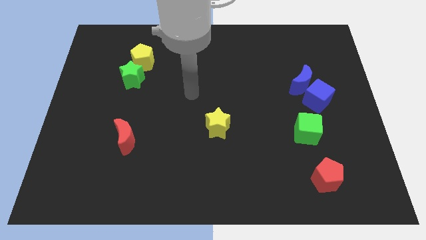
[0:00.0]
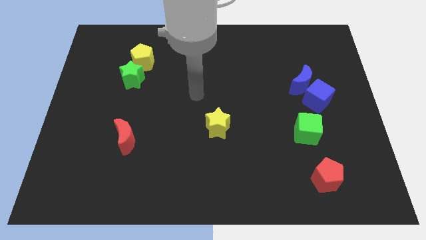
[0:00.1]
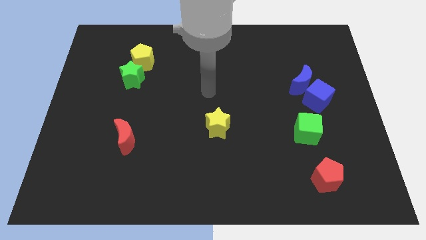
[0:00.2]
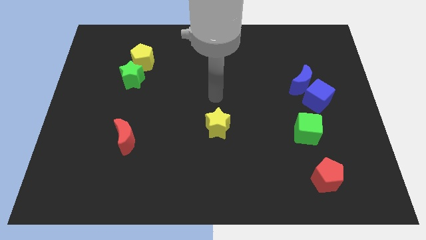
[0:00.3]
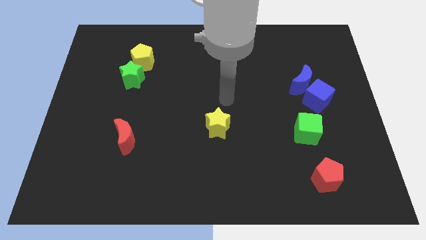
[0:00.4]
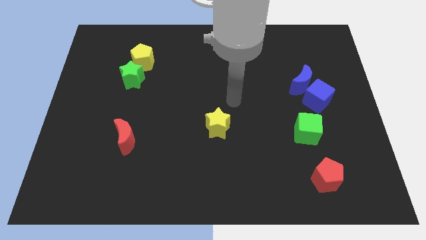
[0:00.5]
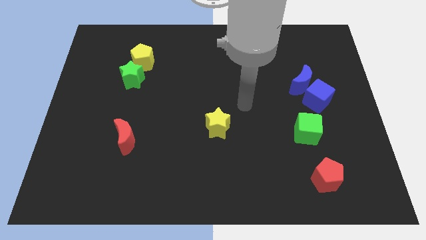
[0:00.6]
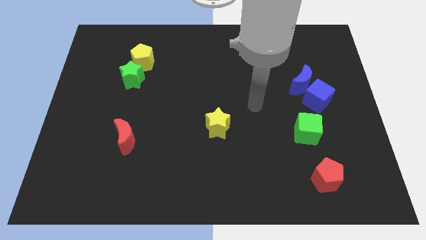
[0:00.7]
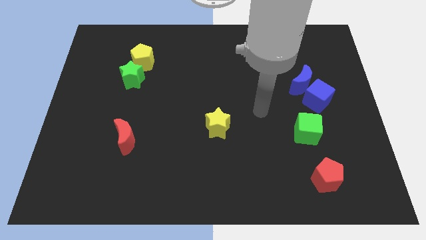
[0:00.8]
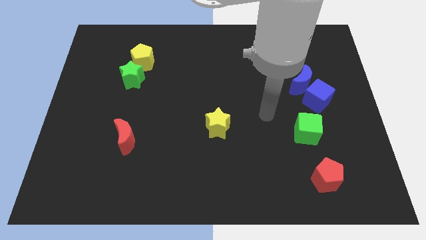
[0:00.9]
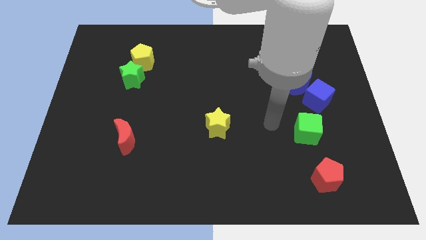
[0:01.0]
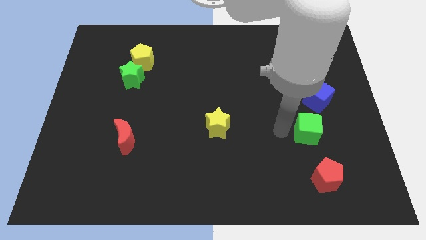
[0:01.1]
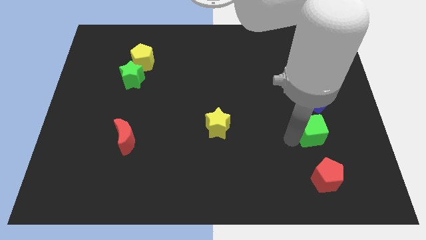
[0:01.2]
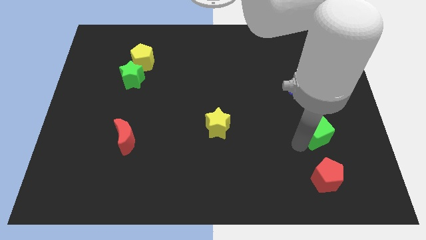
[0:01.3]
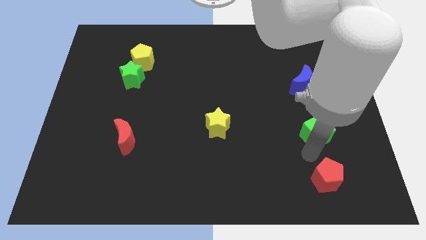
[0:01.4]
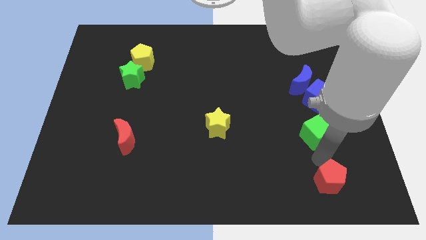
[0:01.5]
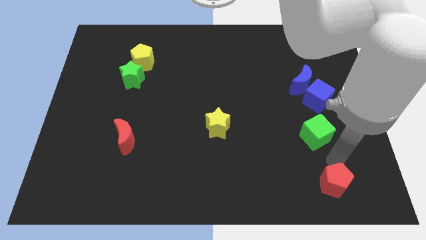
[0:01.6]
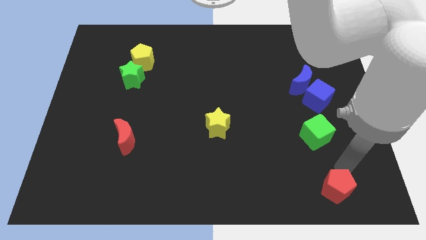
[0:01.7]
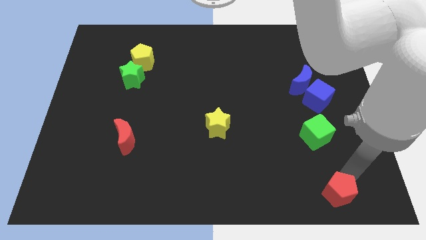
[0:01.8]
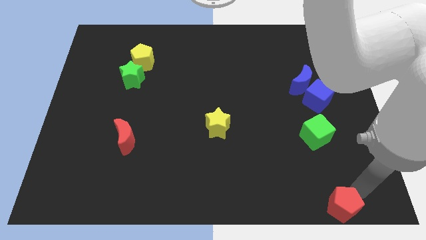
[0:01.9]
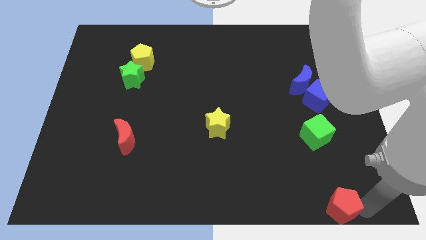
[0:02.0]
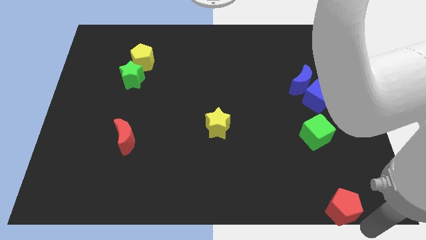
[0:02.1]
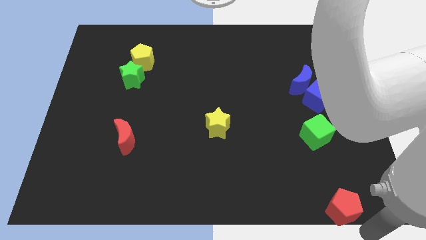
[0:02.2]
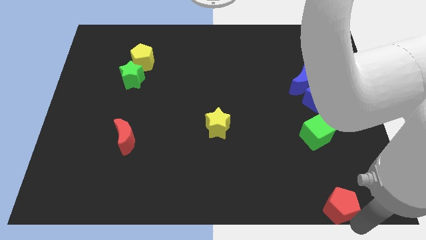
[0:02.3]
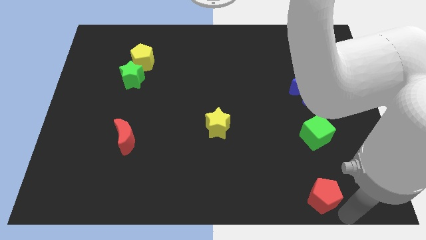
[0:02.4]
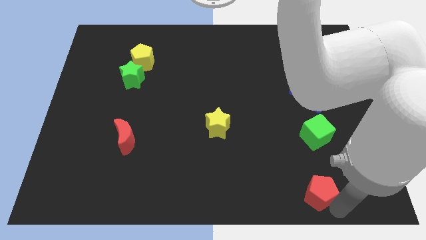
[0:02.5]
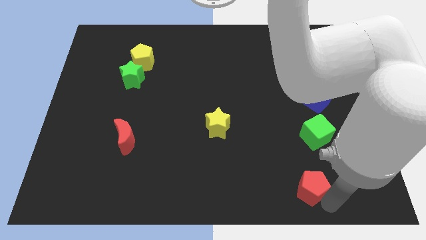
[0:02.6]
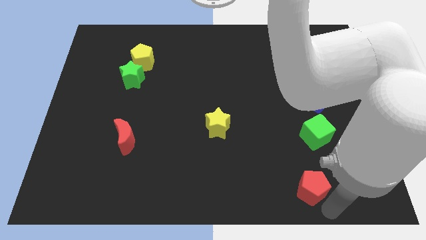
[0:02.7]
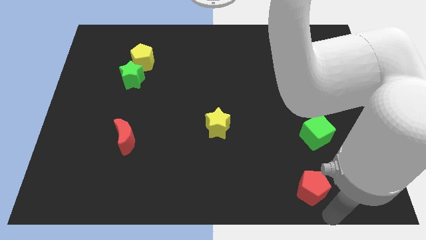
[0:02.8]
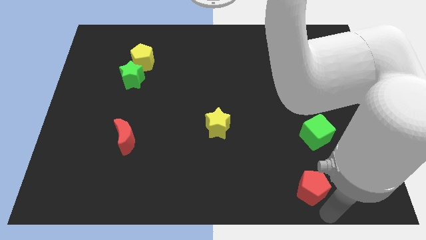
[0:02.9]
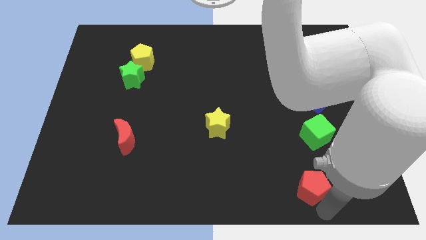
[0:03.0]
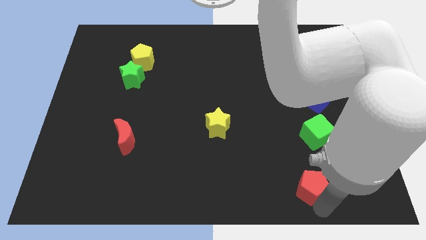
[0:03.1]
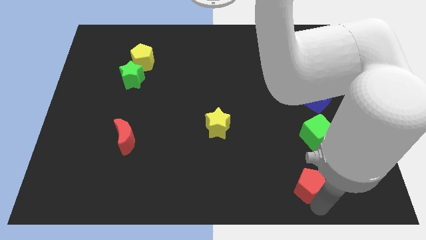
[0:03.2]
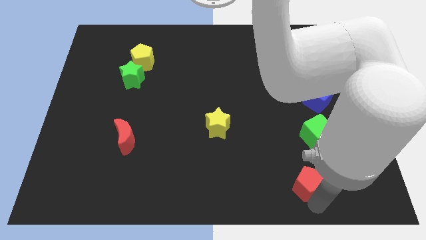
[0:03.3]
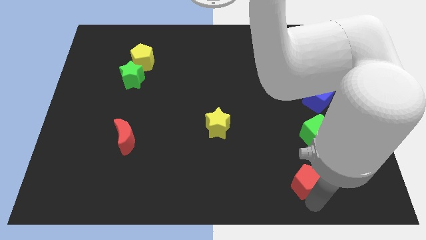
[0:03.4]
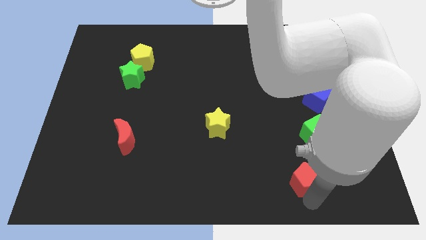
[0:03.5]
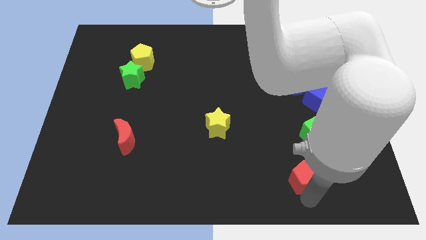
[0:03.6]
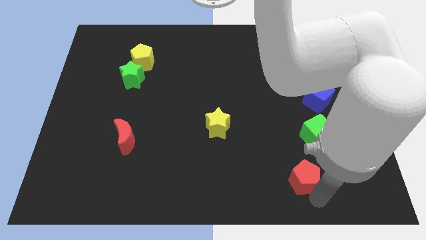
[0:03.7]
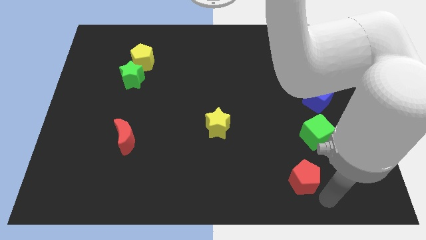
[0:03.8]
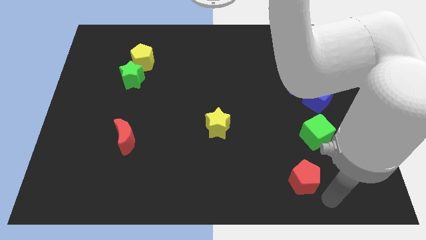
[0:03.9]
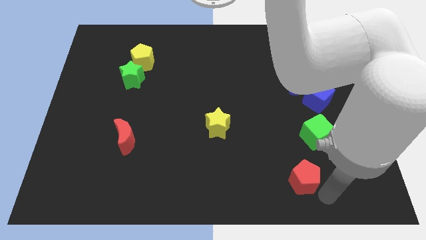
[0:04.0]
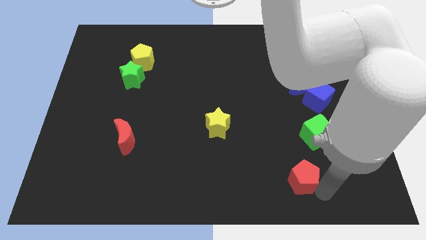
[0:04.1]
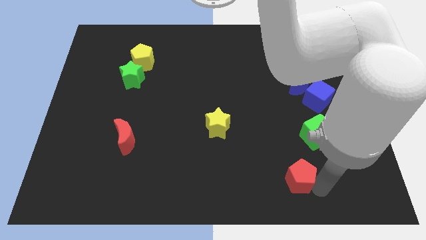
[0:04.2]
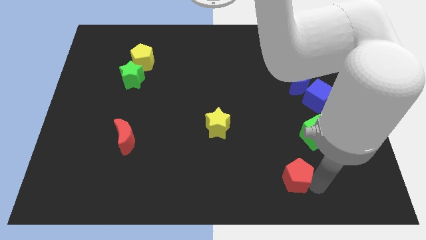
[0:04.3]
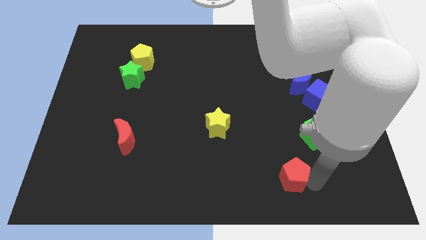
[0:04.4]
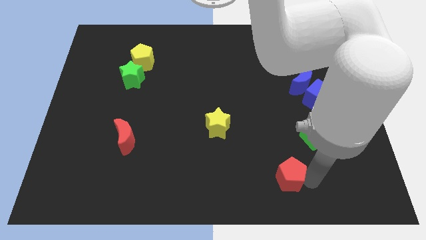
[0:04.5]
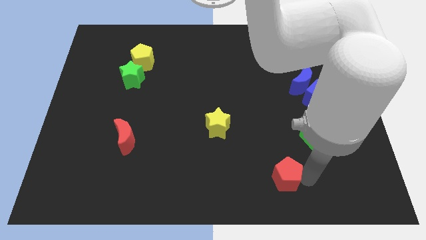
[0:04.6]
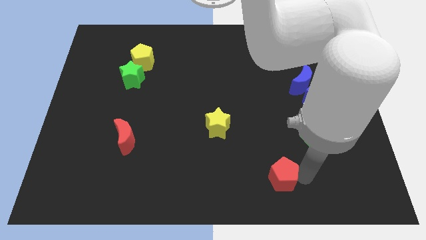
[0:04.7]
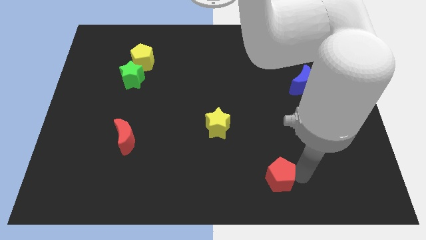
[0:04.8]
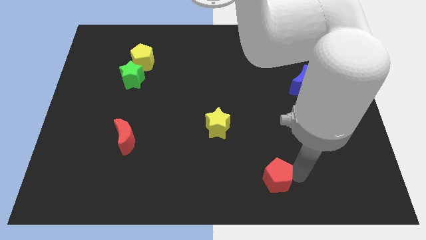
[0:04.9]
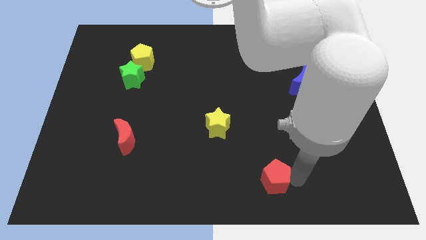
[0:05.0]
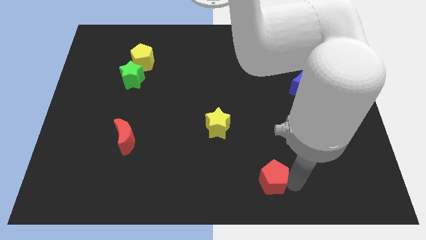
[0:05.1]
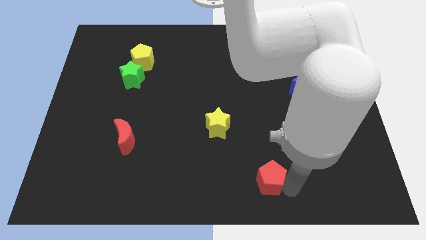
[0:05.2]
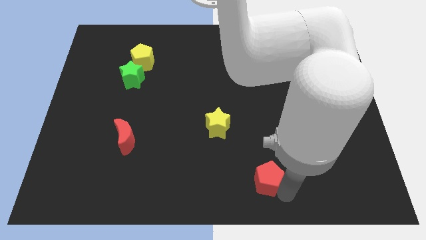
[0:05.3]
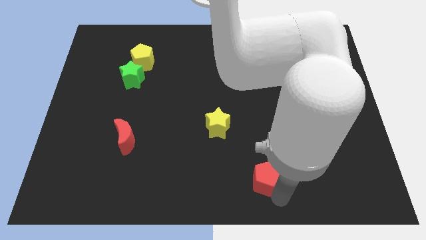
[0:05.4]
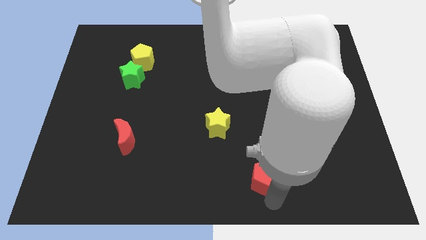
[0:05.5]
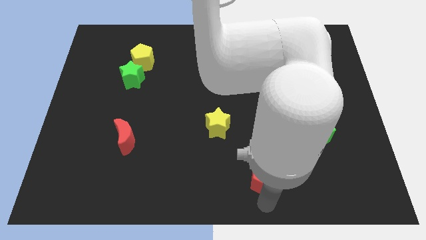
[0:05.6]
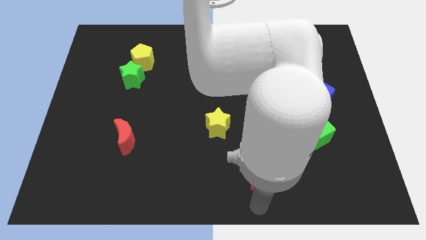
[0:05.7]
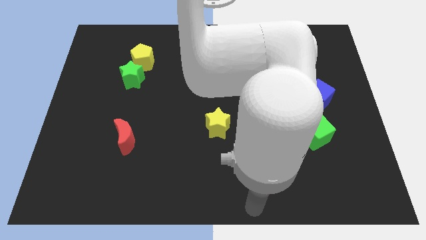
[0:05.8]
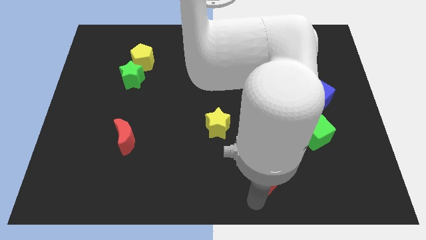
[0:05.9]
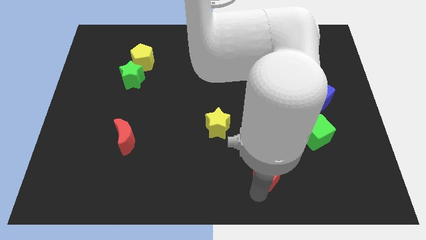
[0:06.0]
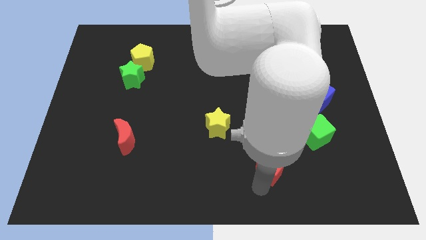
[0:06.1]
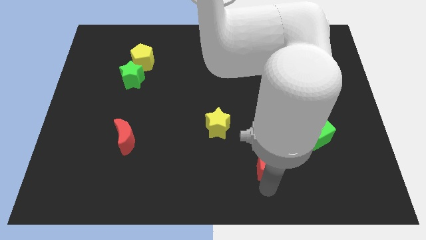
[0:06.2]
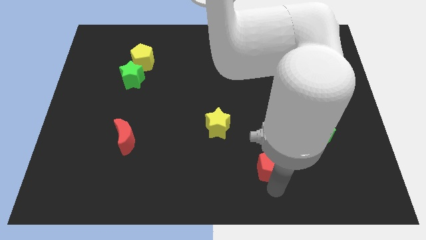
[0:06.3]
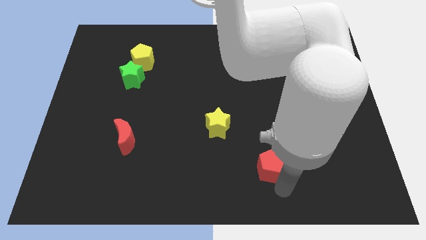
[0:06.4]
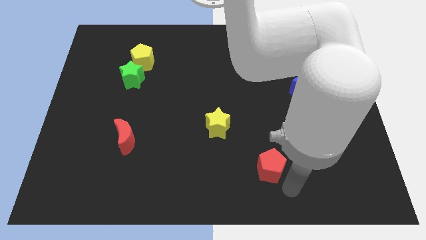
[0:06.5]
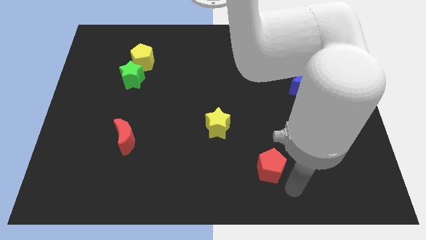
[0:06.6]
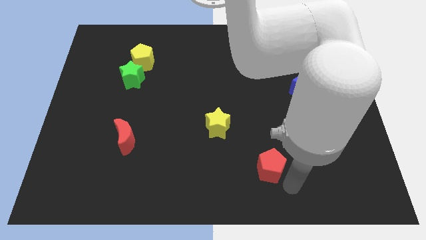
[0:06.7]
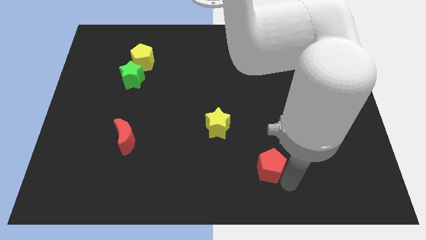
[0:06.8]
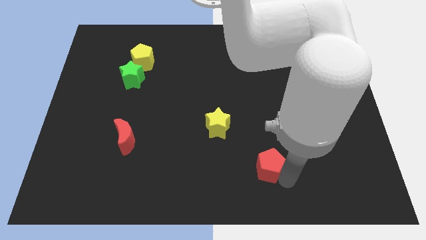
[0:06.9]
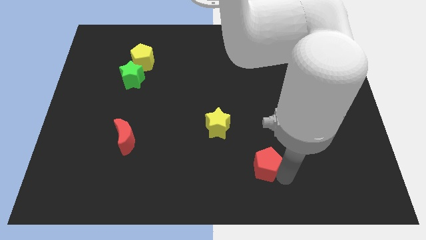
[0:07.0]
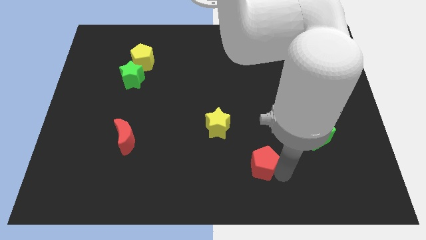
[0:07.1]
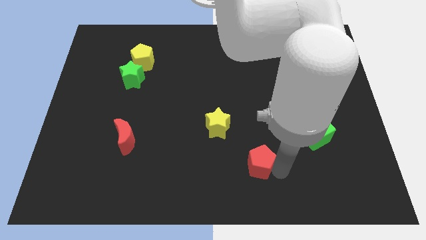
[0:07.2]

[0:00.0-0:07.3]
put the red pentagon to the bottom right of the yellow star

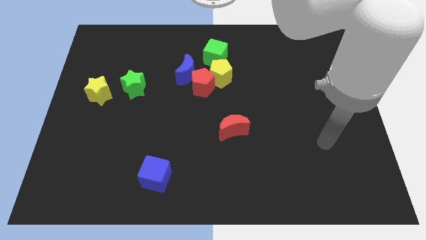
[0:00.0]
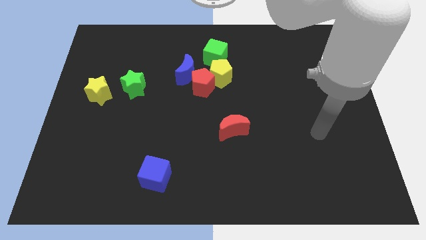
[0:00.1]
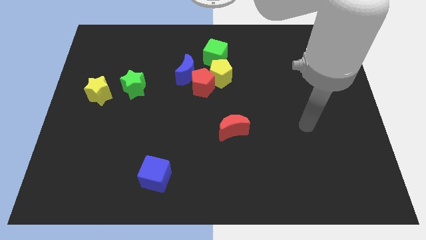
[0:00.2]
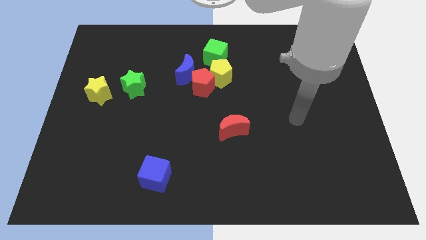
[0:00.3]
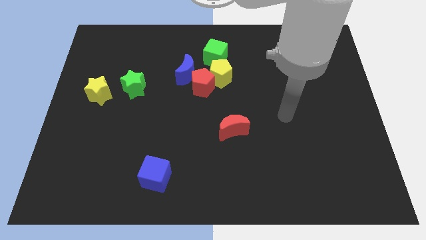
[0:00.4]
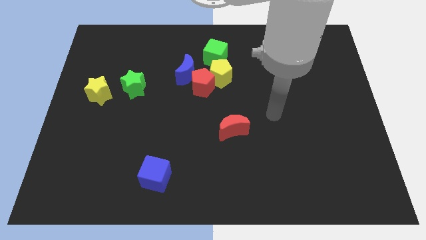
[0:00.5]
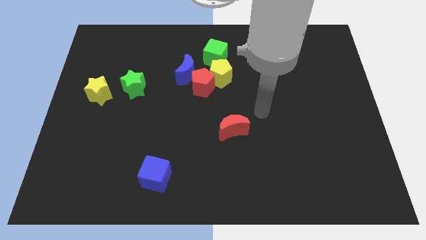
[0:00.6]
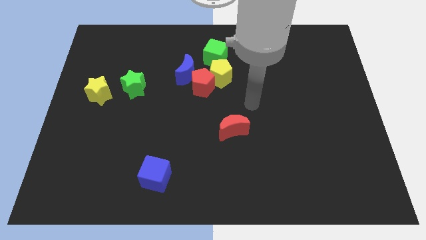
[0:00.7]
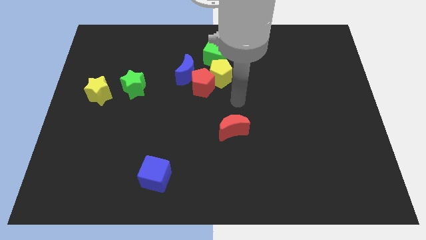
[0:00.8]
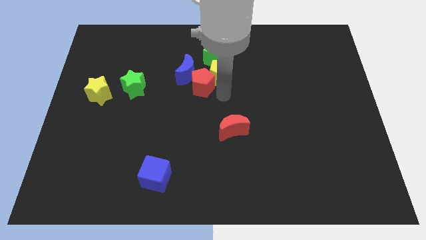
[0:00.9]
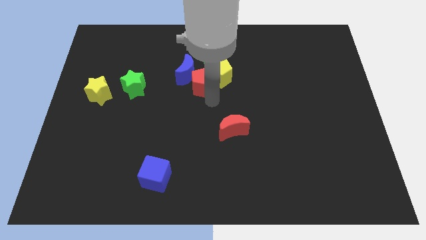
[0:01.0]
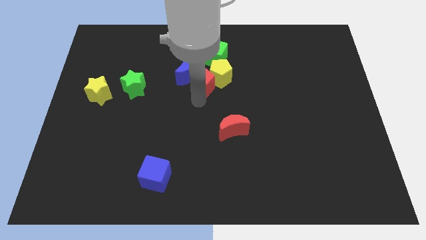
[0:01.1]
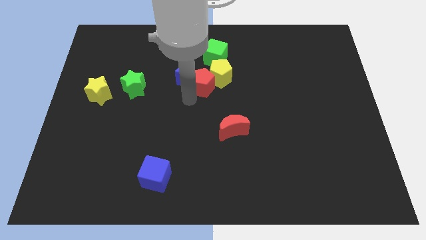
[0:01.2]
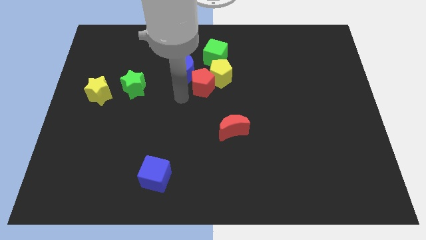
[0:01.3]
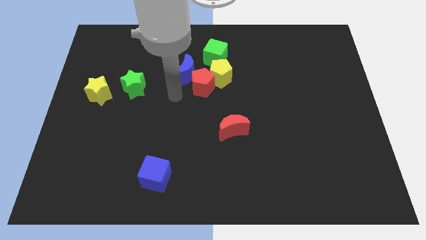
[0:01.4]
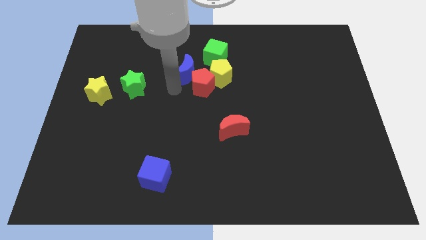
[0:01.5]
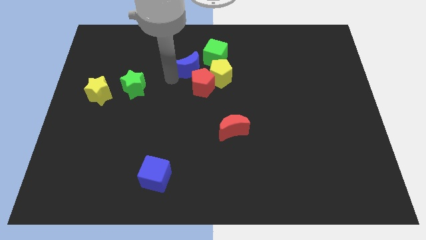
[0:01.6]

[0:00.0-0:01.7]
slide the green cube just right of the blue moon
